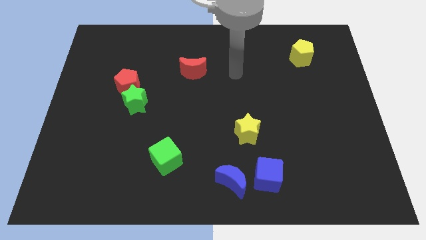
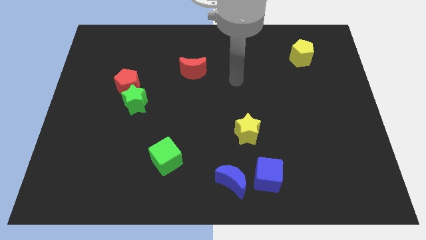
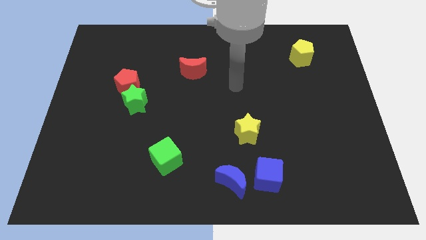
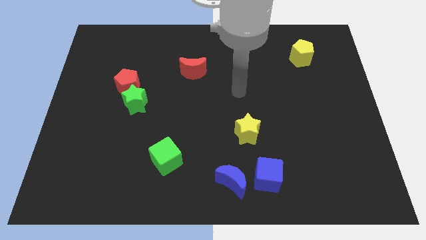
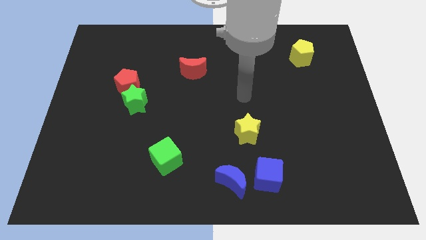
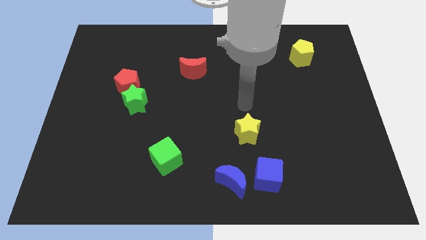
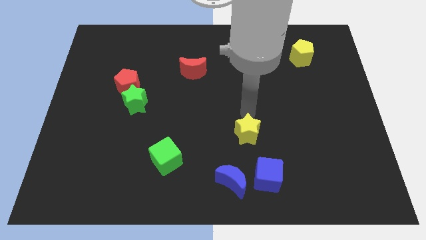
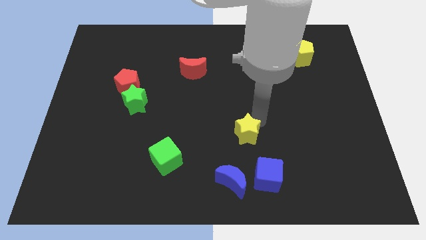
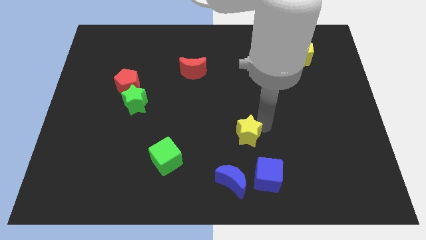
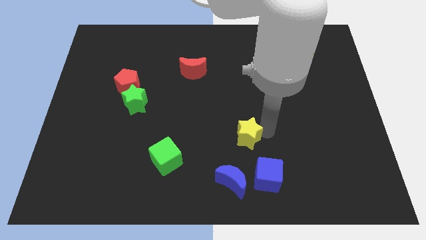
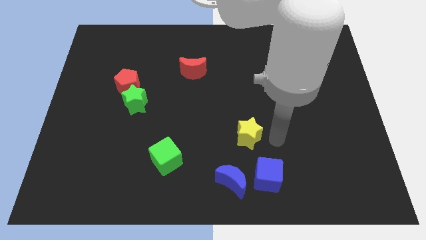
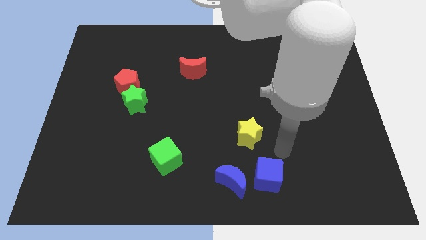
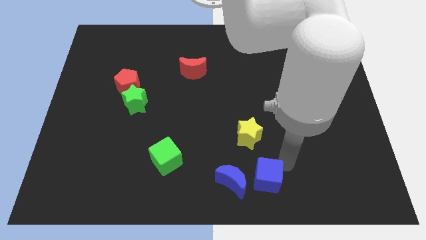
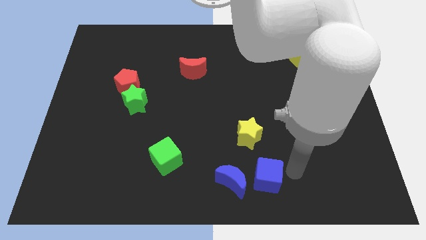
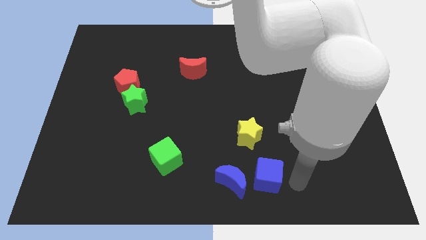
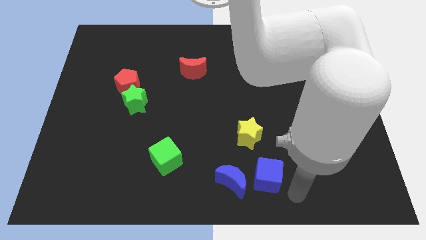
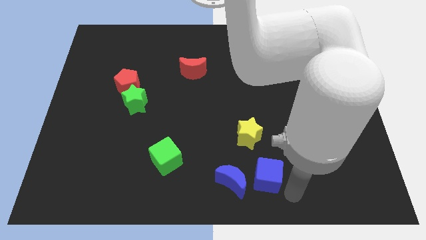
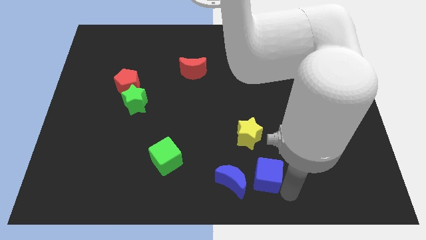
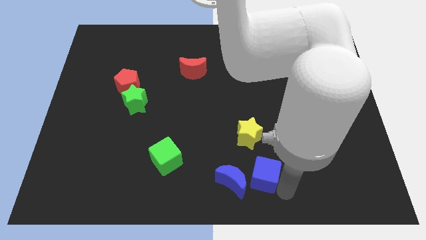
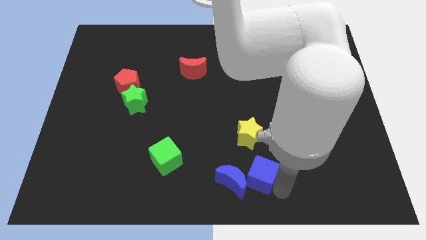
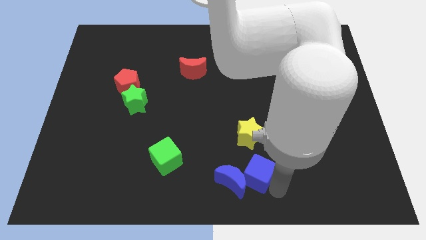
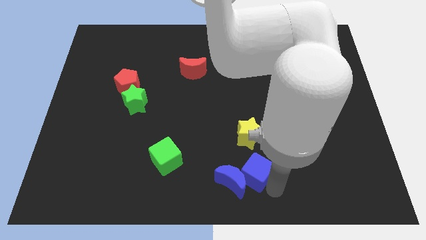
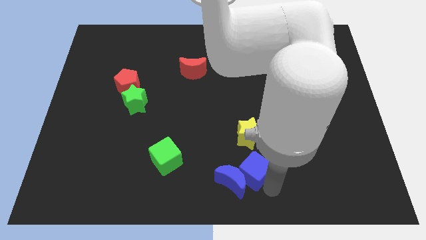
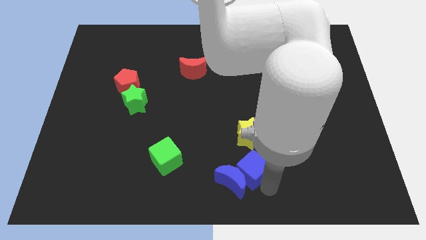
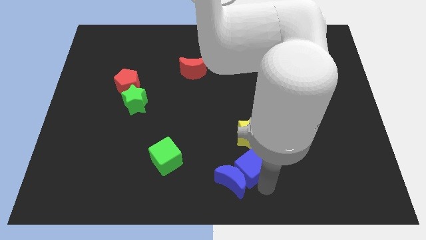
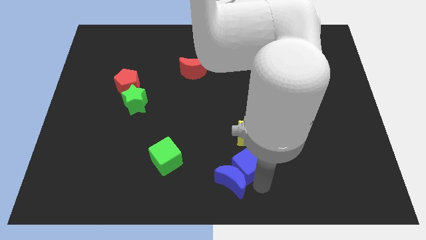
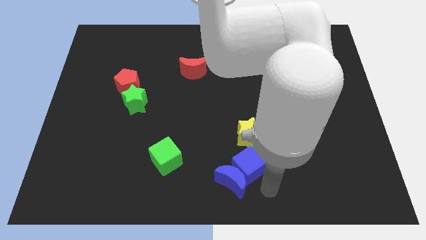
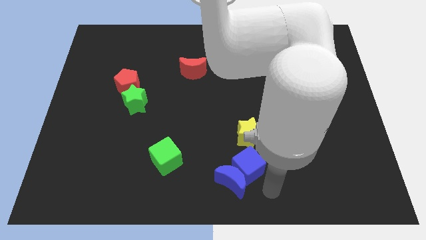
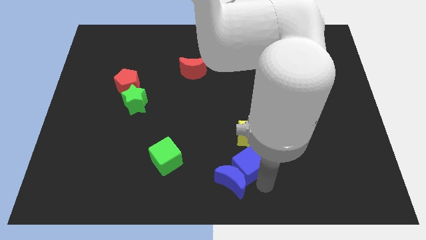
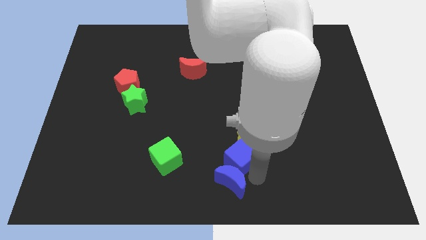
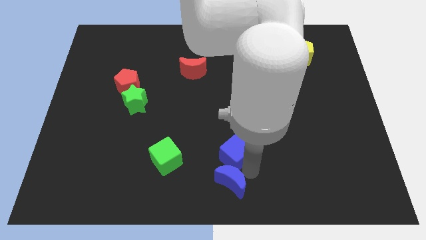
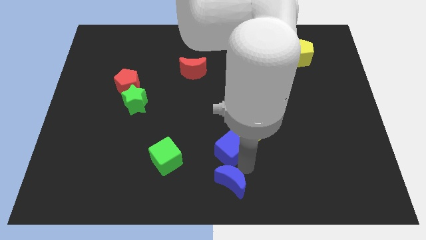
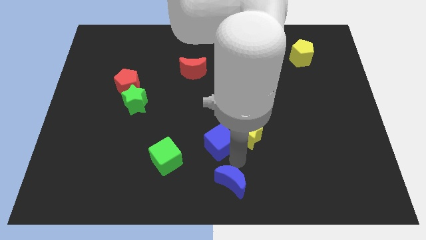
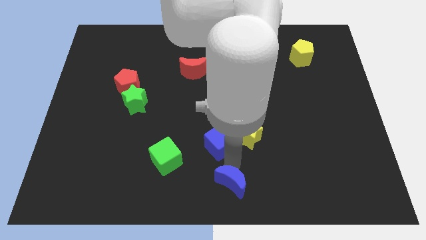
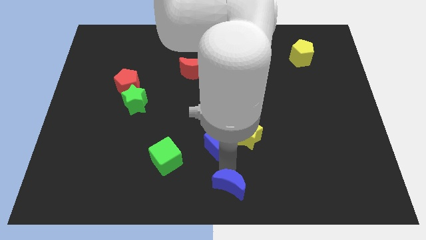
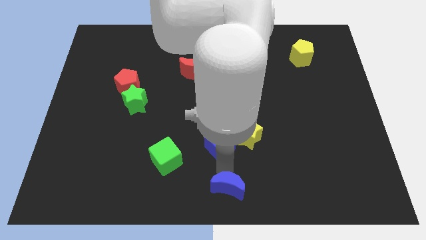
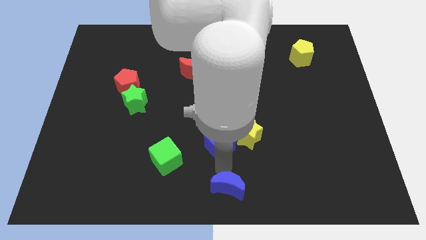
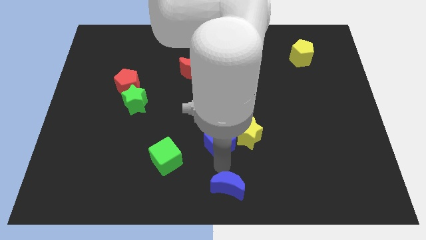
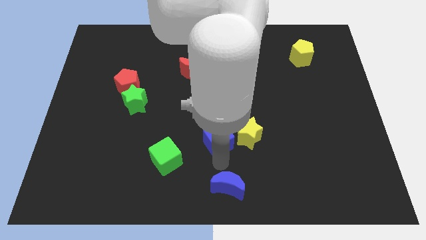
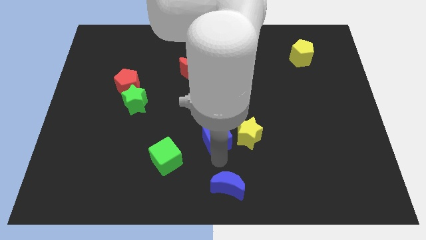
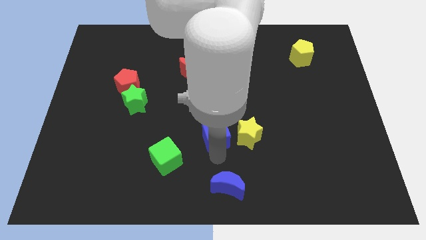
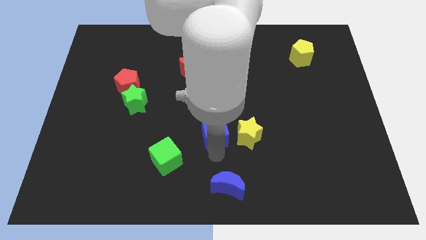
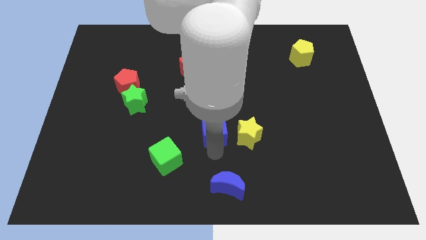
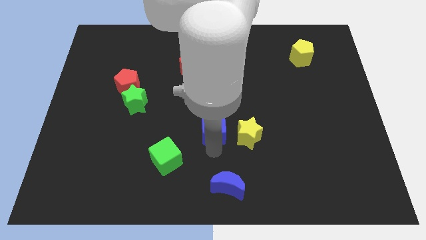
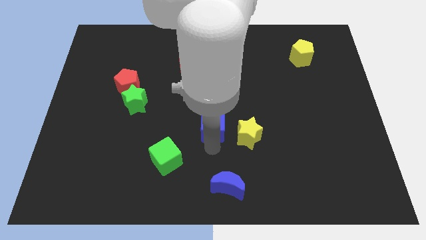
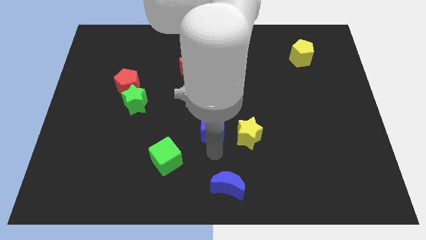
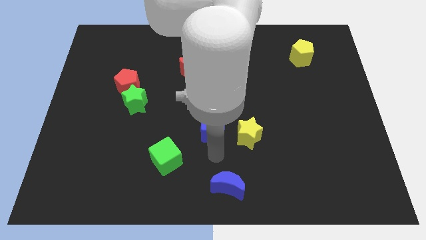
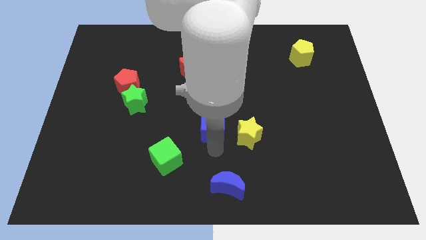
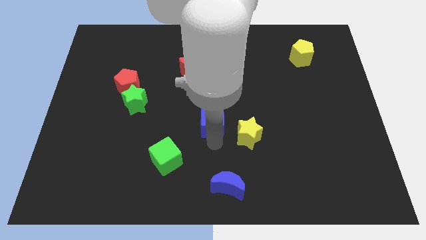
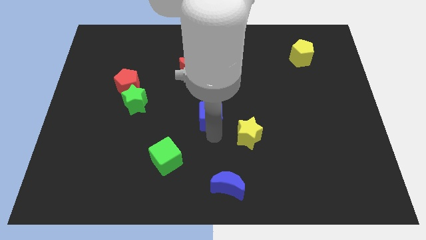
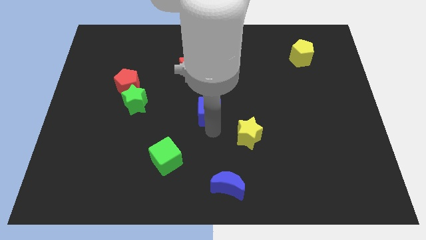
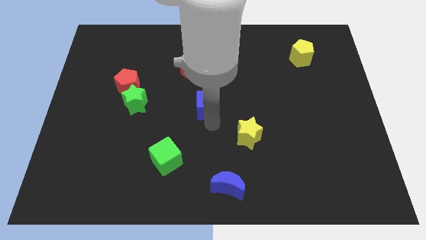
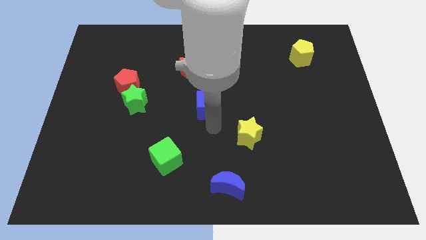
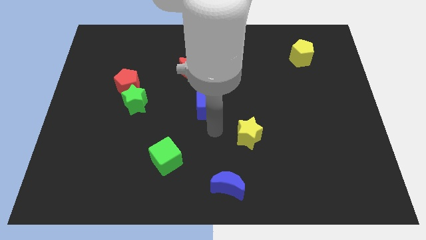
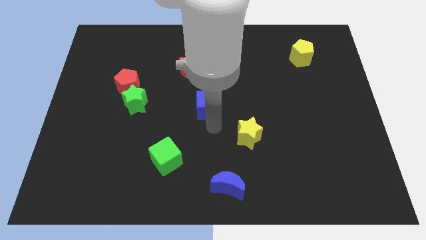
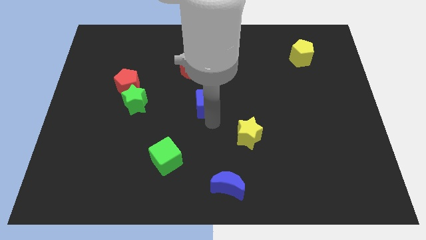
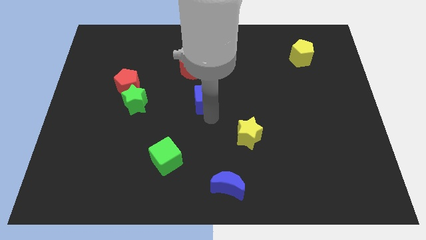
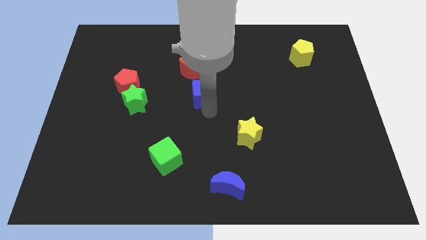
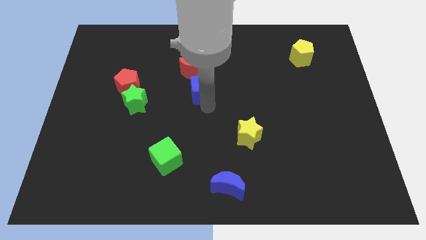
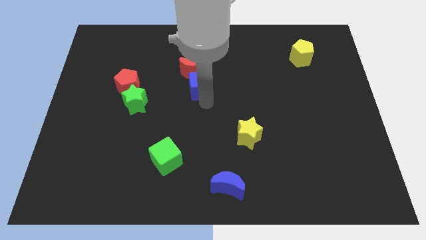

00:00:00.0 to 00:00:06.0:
push the blue cube towards the red moon

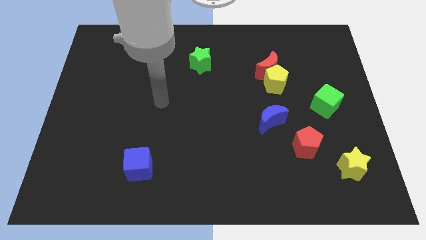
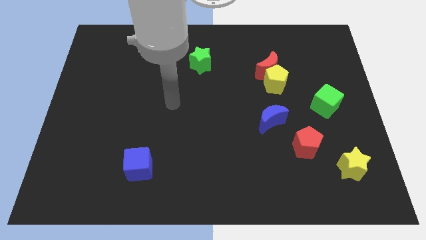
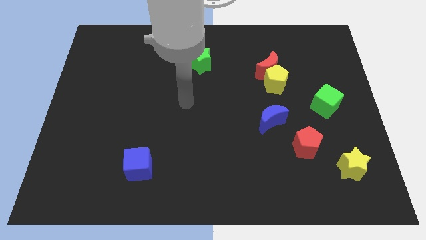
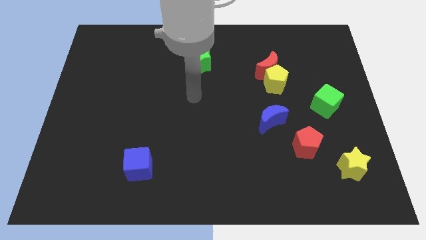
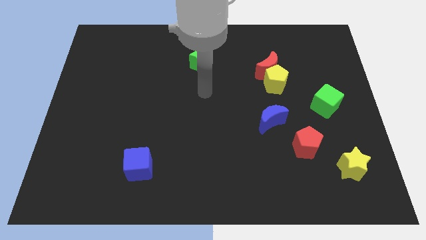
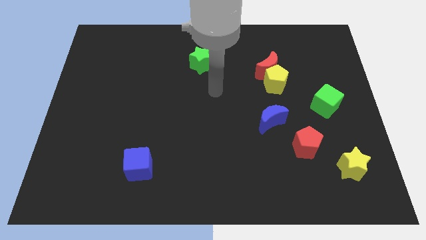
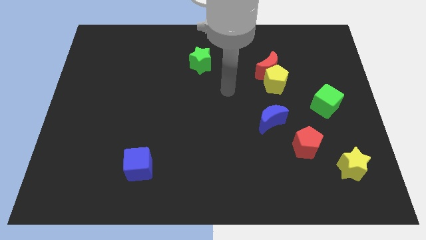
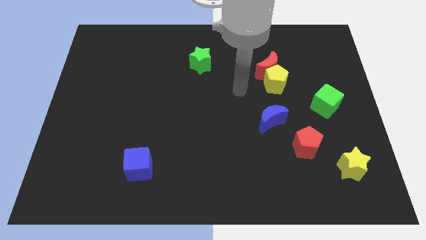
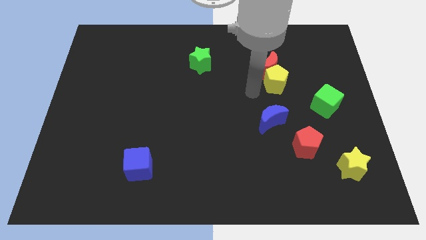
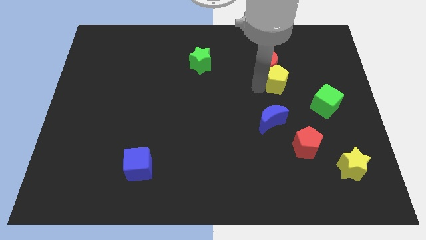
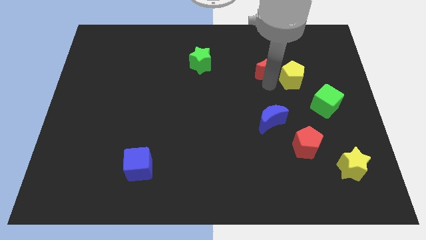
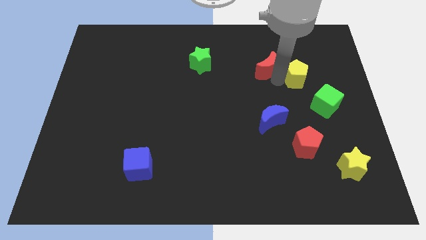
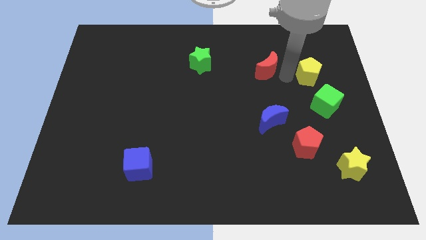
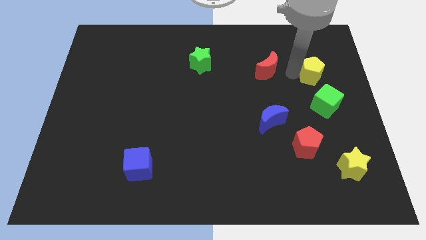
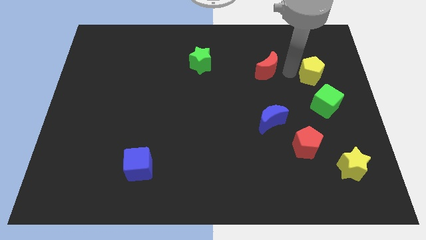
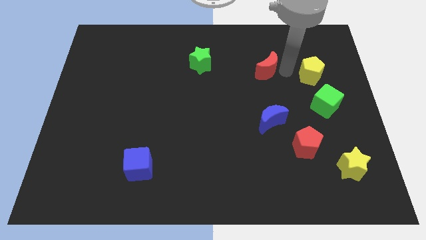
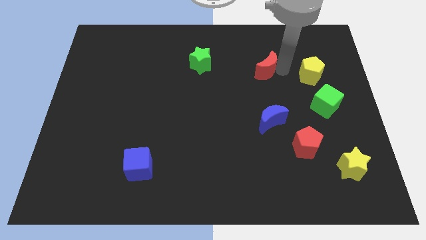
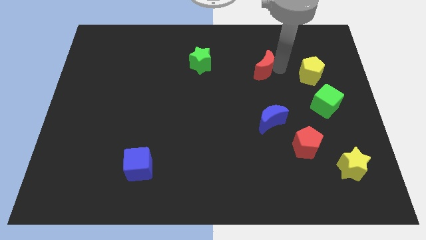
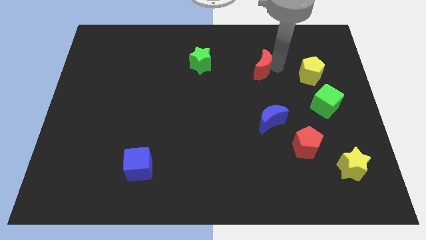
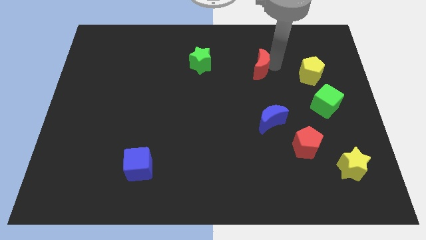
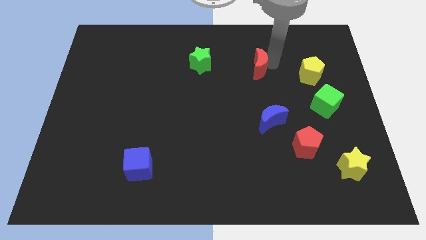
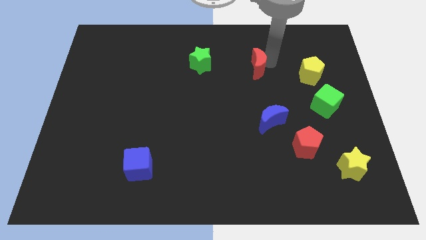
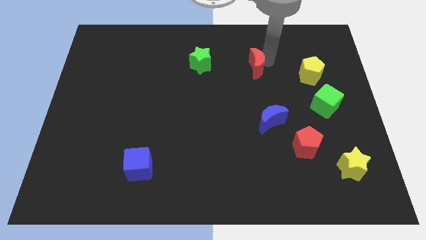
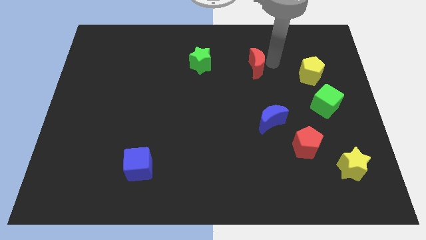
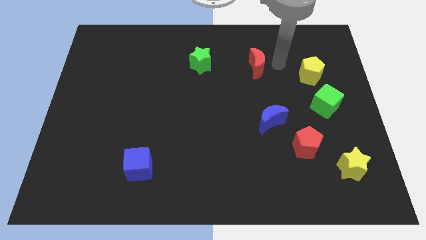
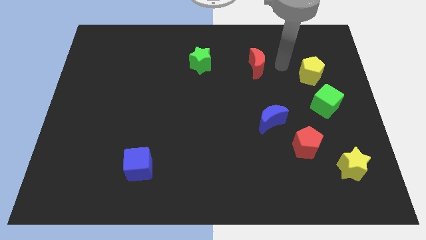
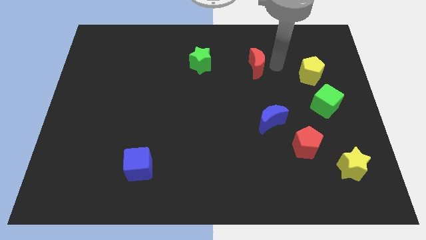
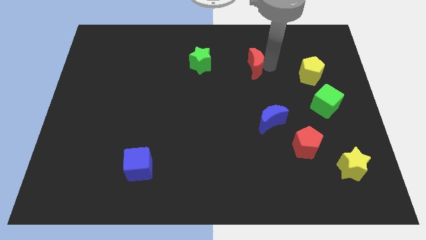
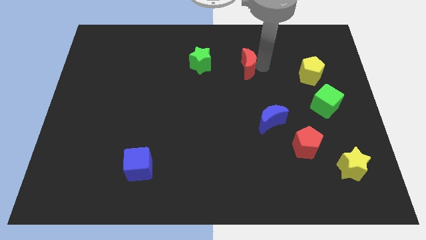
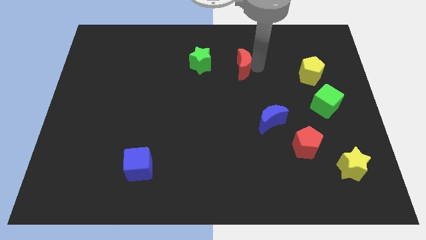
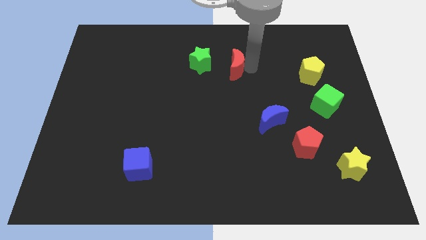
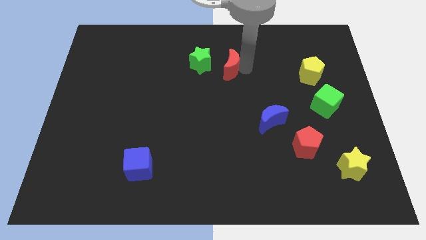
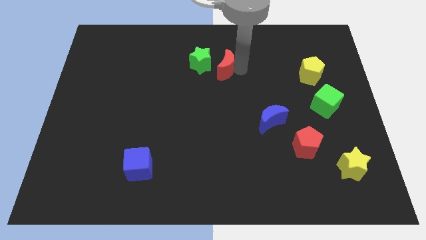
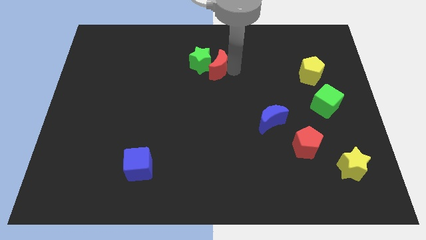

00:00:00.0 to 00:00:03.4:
put the red moon towards the green star
